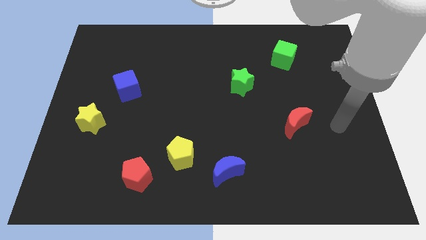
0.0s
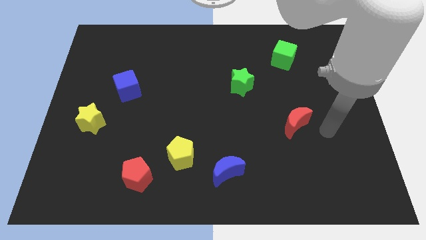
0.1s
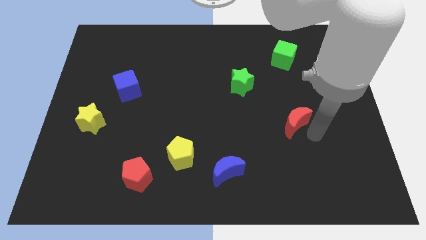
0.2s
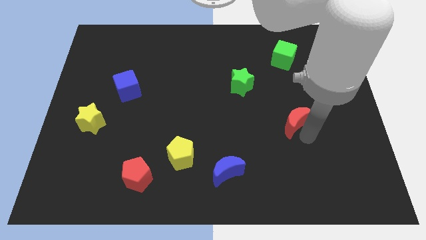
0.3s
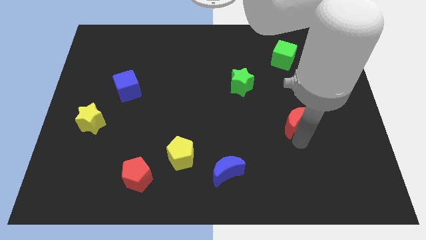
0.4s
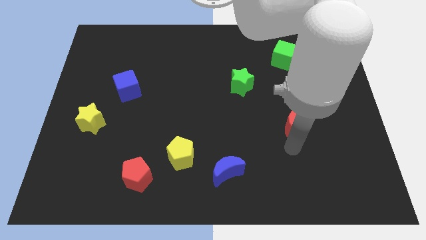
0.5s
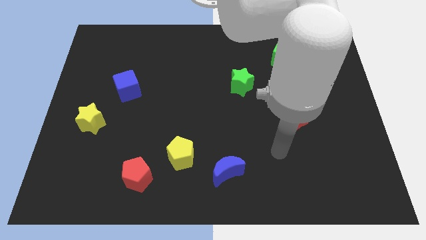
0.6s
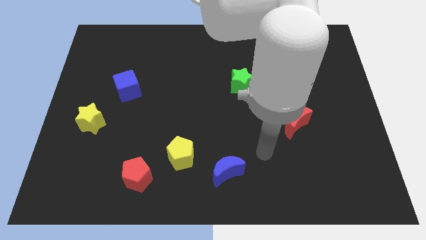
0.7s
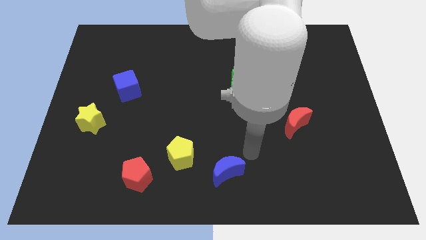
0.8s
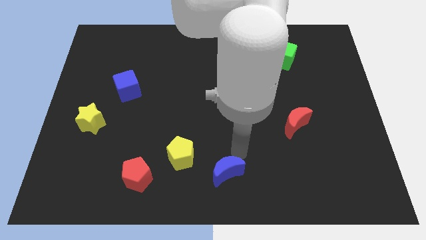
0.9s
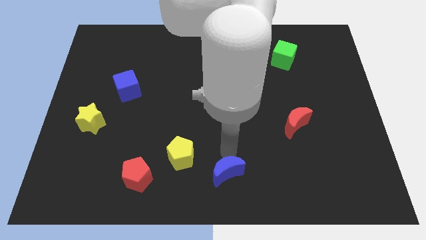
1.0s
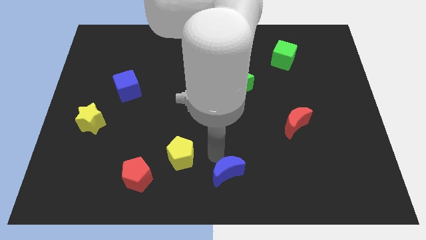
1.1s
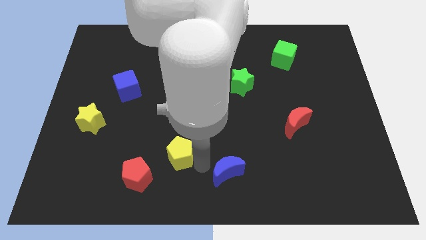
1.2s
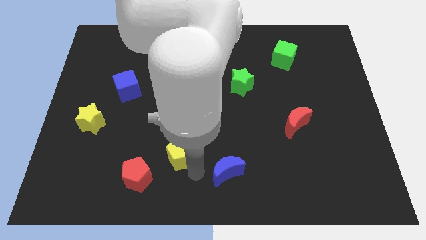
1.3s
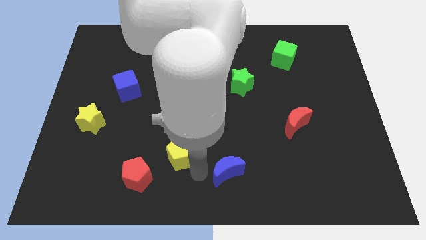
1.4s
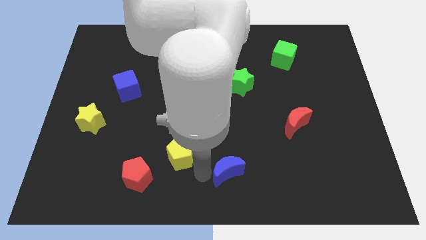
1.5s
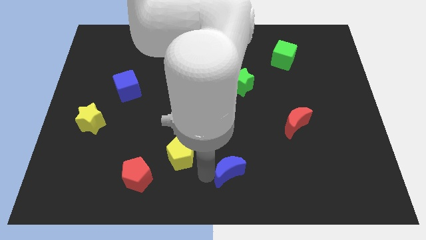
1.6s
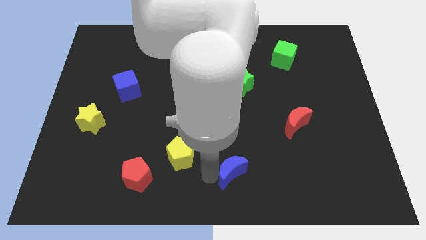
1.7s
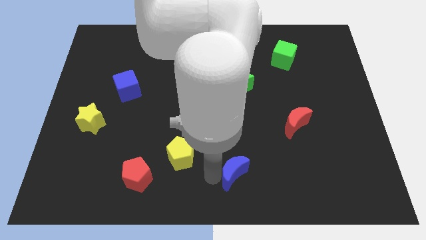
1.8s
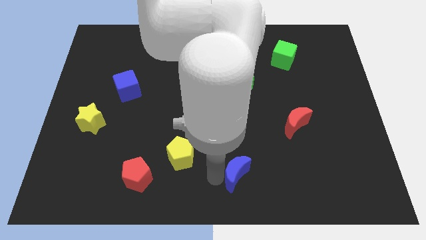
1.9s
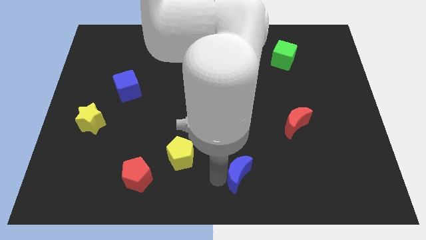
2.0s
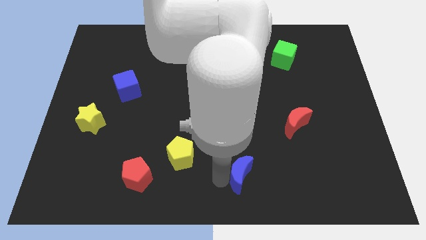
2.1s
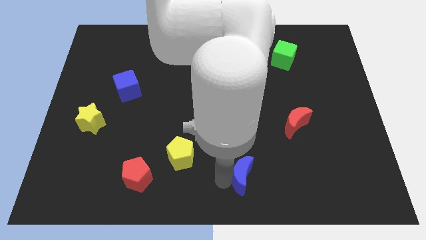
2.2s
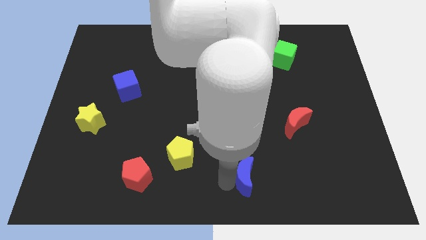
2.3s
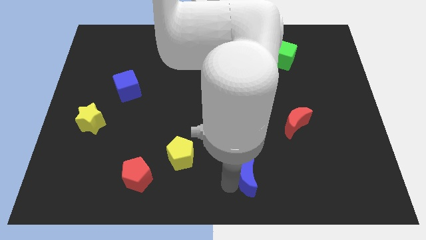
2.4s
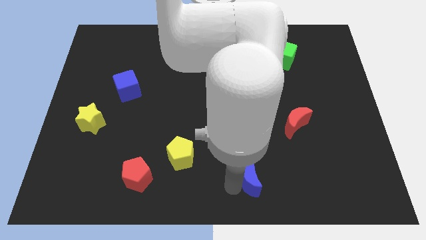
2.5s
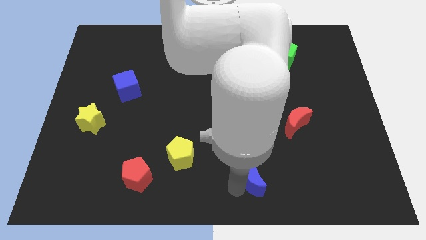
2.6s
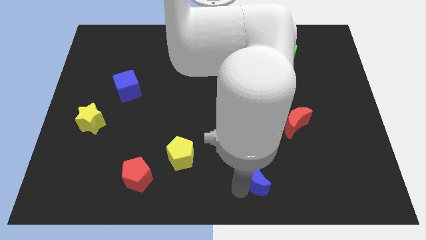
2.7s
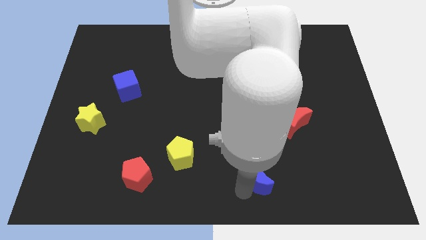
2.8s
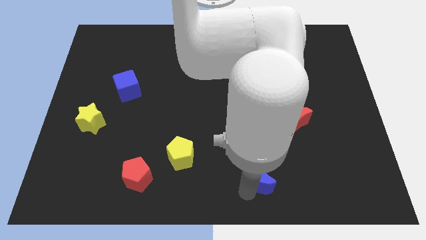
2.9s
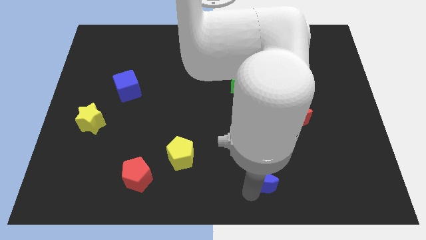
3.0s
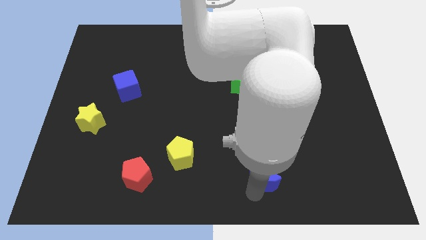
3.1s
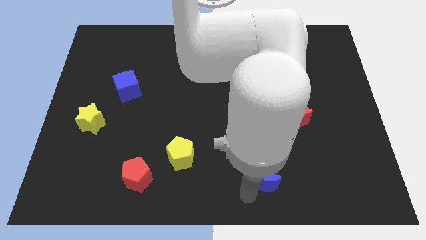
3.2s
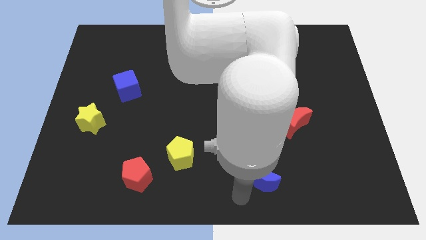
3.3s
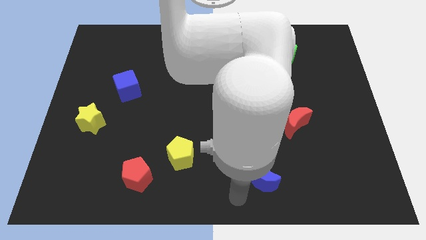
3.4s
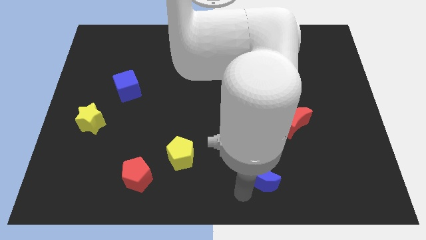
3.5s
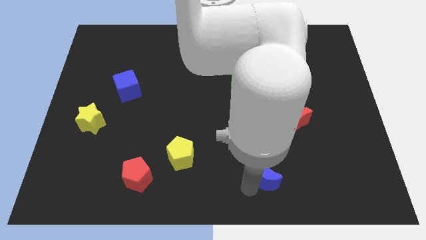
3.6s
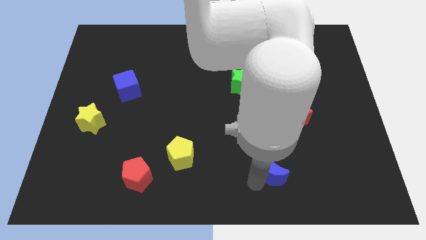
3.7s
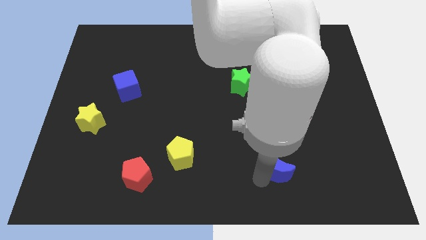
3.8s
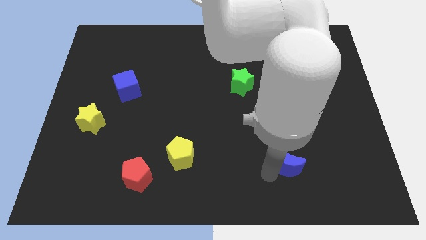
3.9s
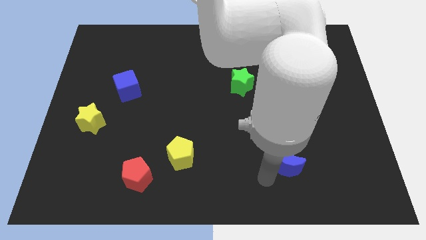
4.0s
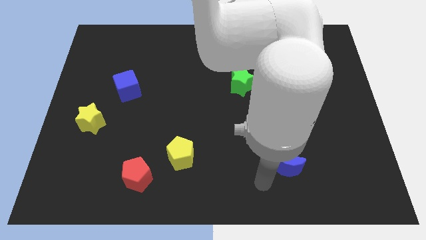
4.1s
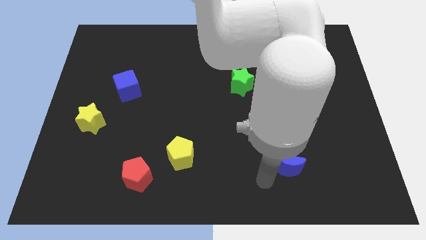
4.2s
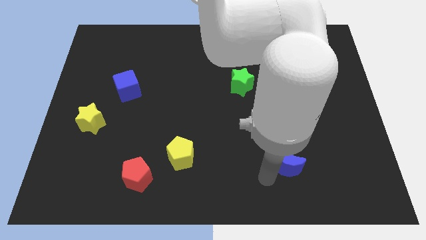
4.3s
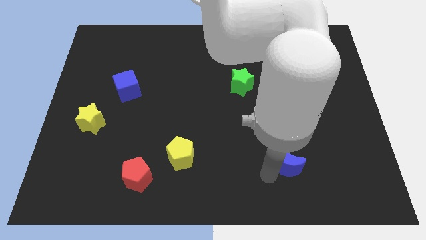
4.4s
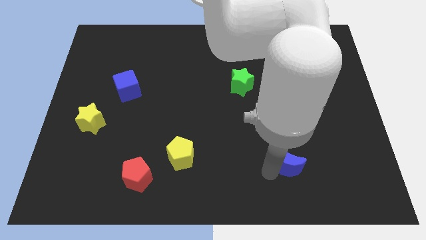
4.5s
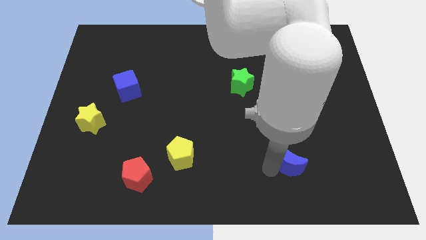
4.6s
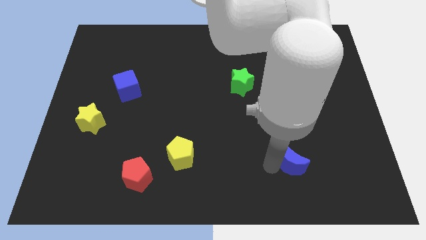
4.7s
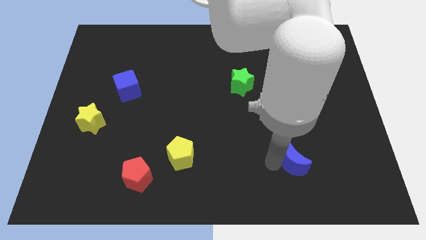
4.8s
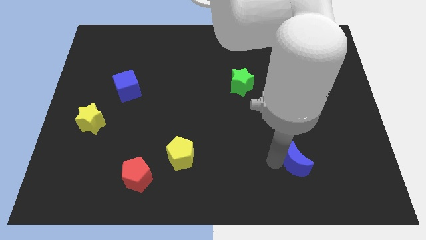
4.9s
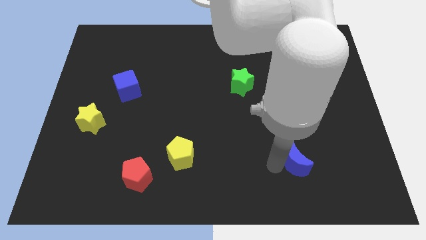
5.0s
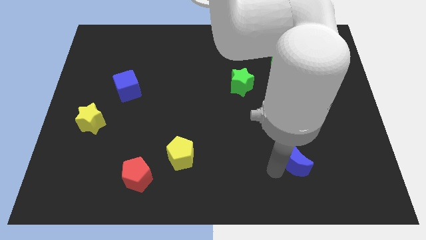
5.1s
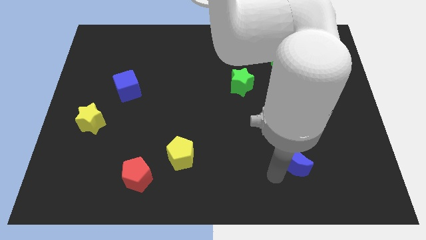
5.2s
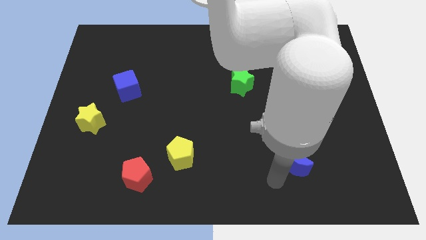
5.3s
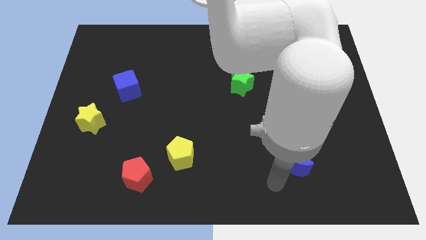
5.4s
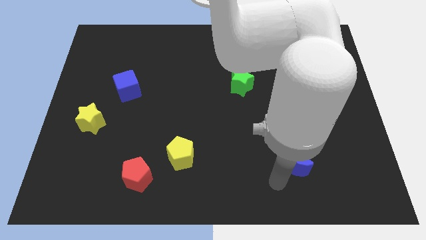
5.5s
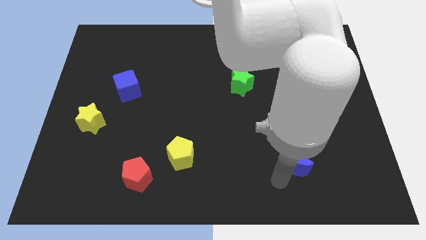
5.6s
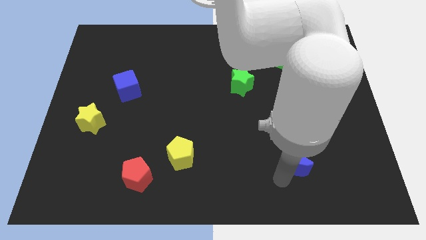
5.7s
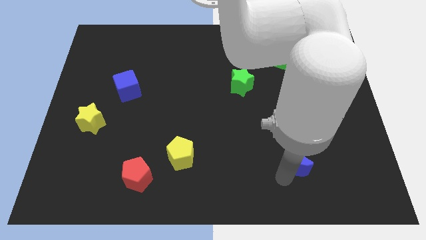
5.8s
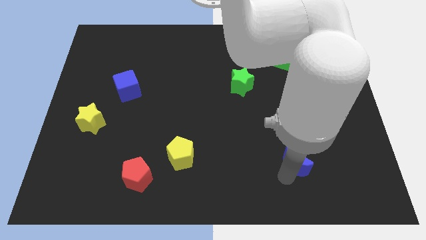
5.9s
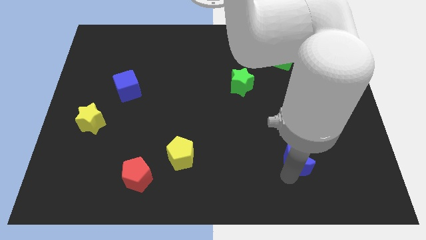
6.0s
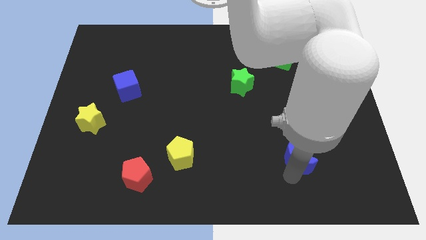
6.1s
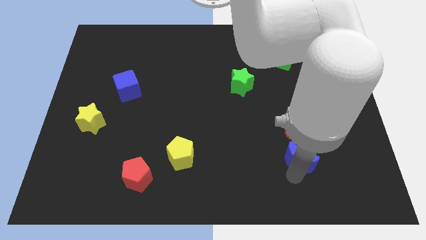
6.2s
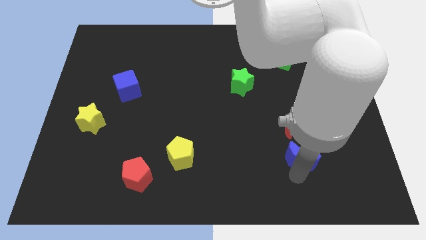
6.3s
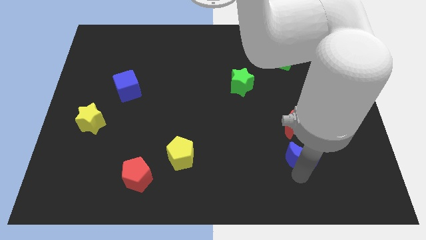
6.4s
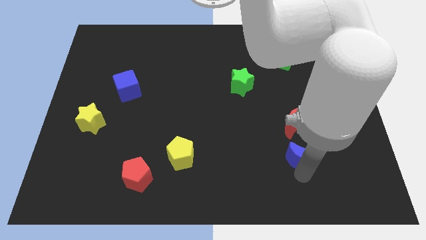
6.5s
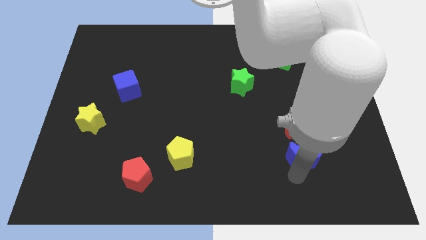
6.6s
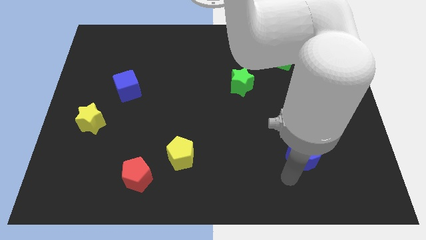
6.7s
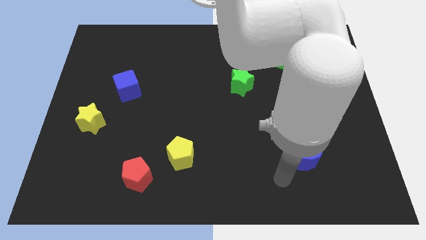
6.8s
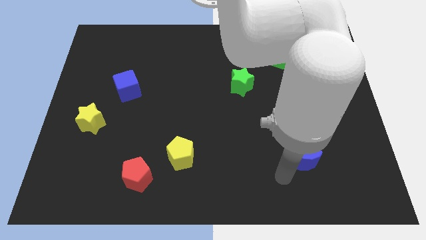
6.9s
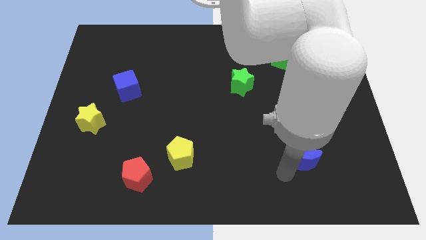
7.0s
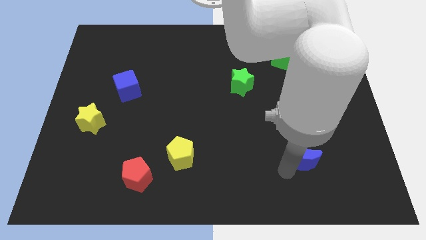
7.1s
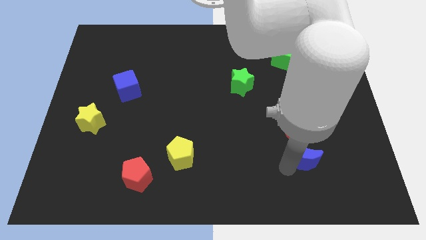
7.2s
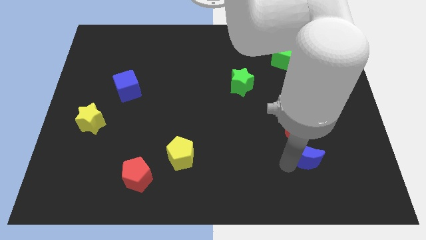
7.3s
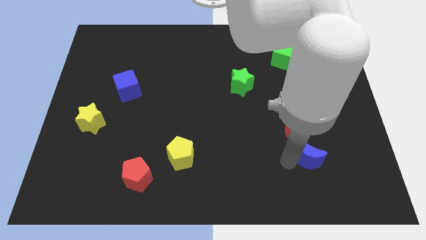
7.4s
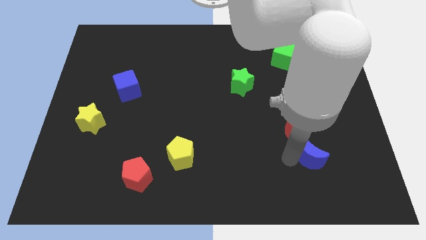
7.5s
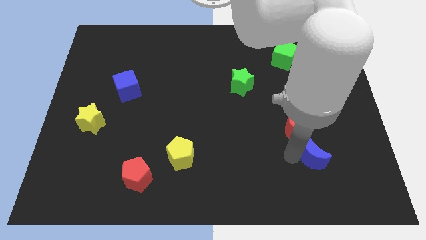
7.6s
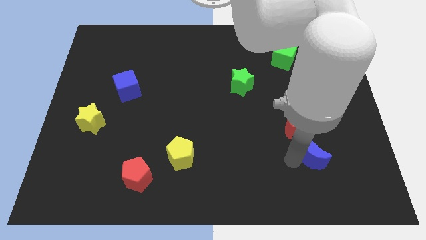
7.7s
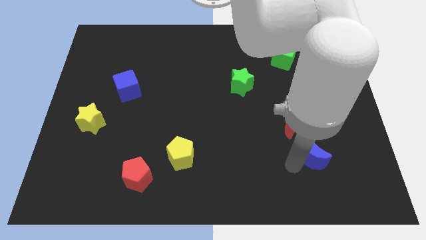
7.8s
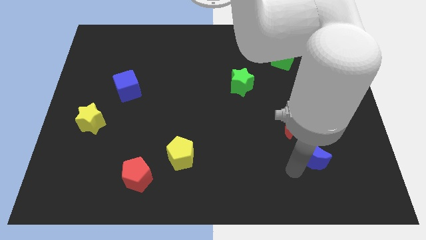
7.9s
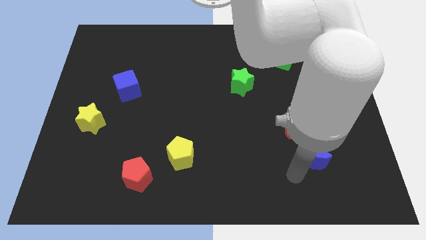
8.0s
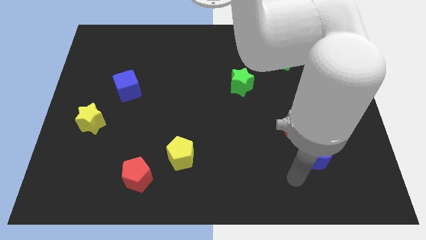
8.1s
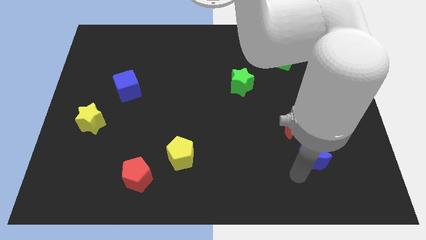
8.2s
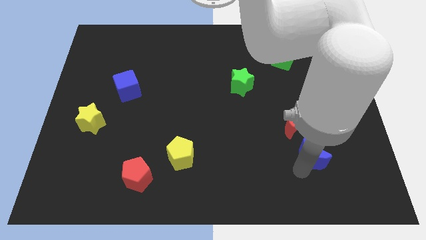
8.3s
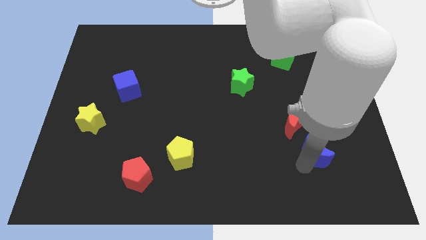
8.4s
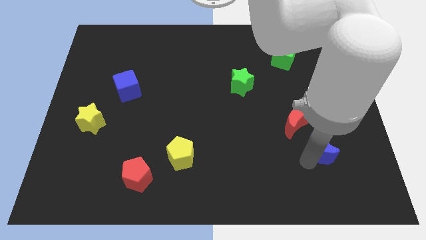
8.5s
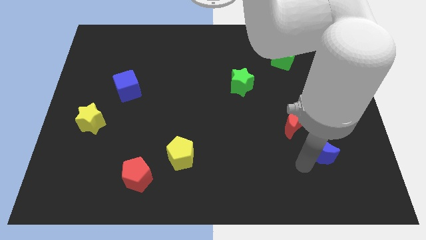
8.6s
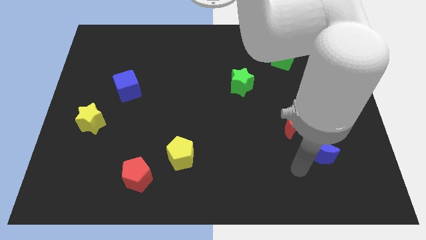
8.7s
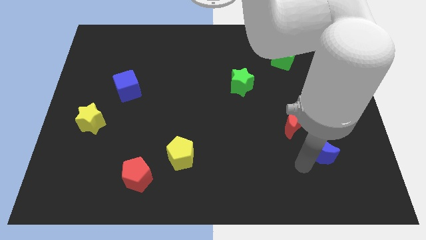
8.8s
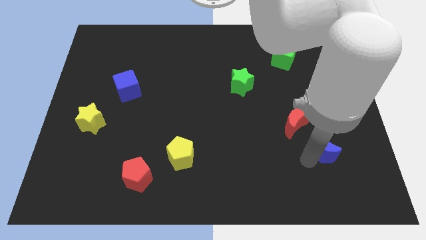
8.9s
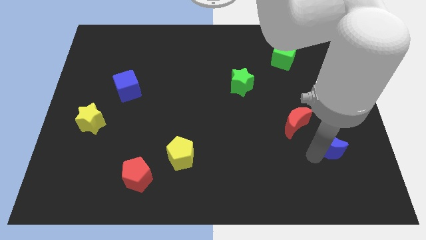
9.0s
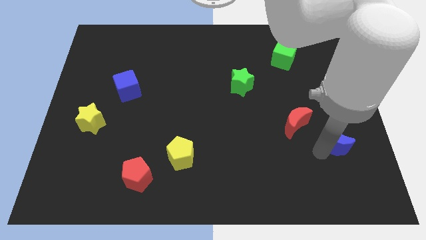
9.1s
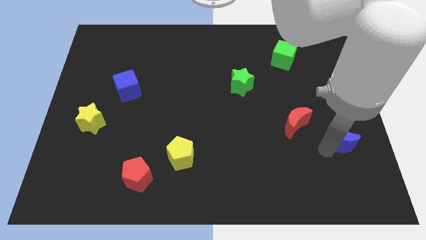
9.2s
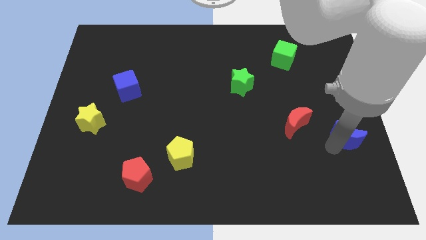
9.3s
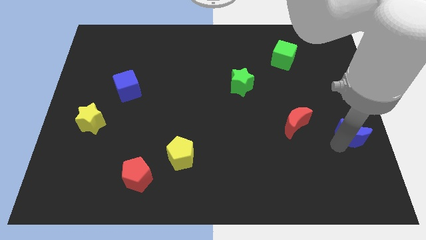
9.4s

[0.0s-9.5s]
put the blue moon to the right side
